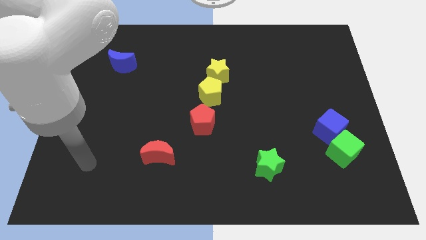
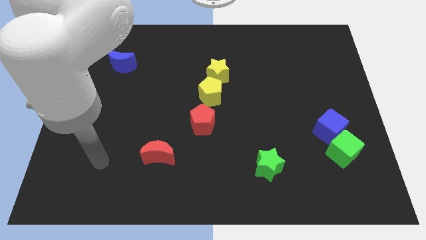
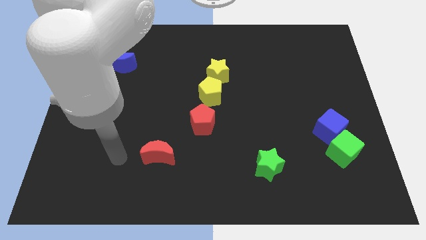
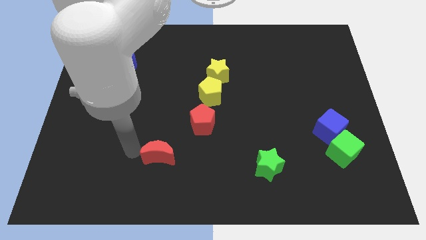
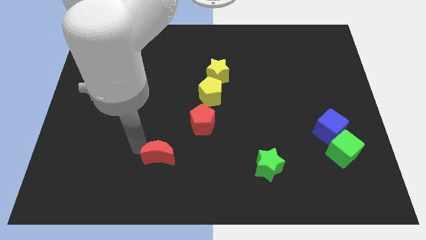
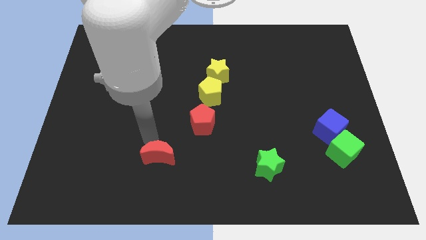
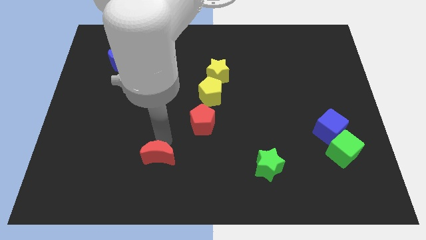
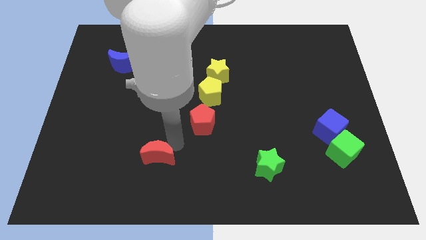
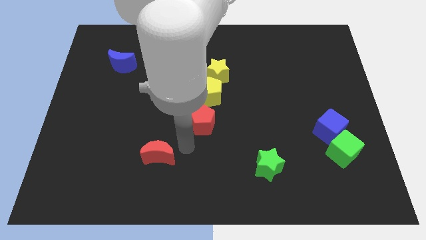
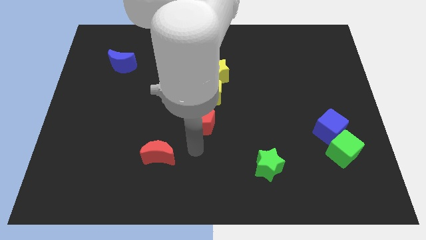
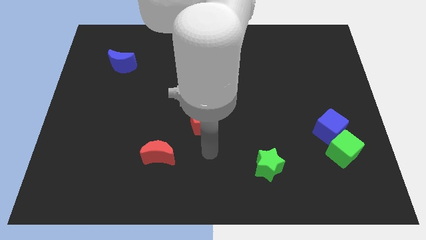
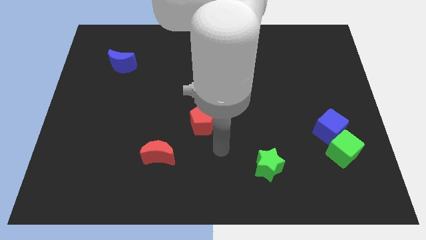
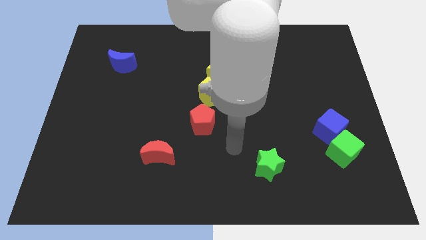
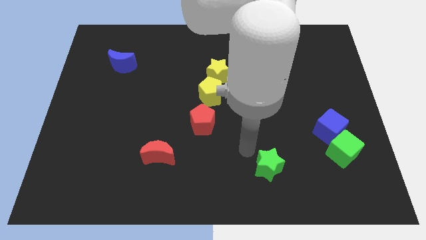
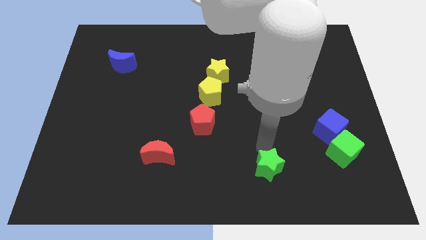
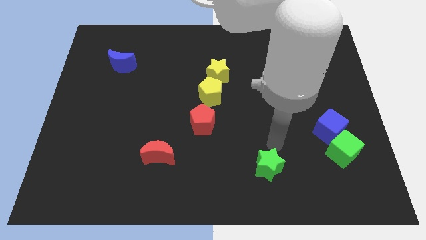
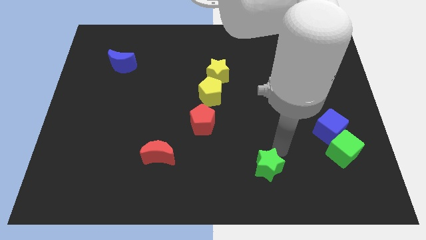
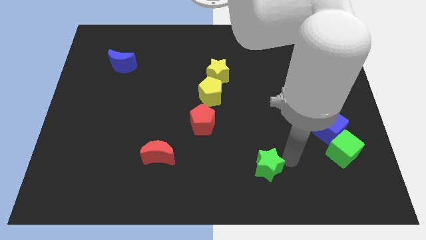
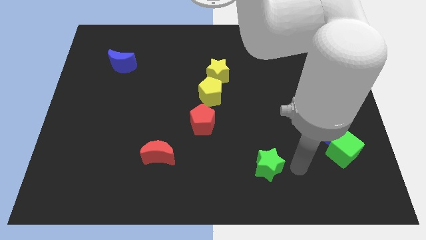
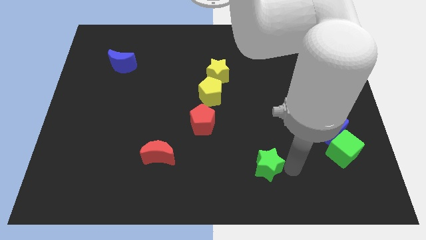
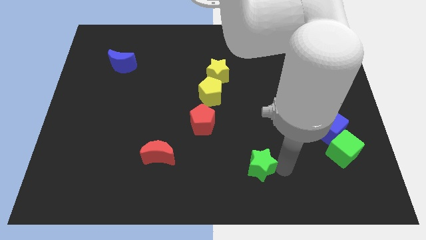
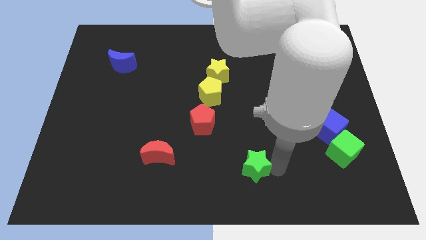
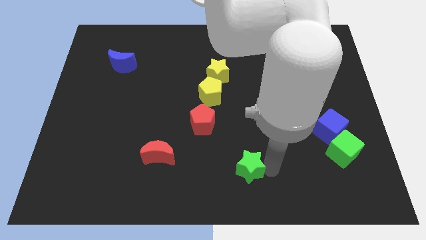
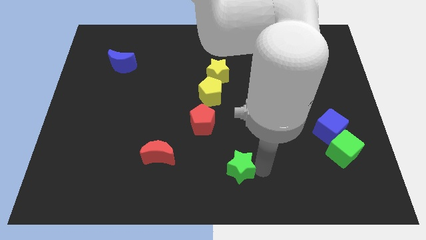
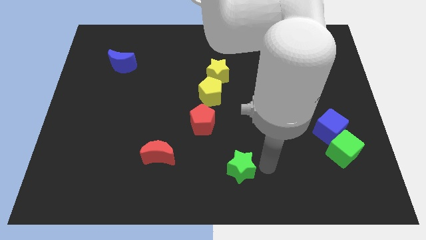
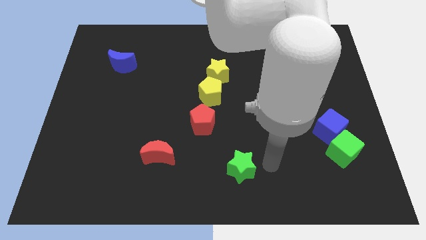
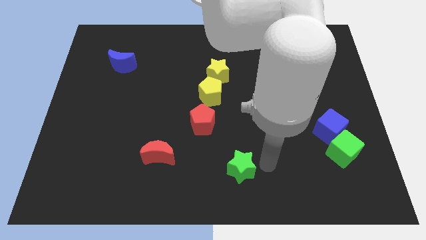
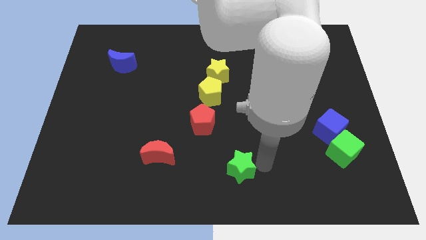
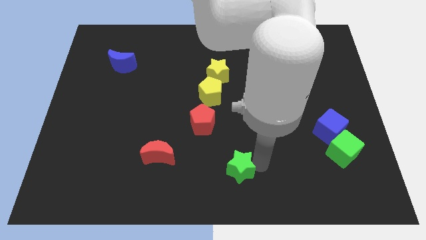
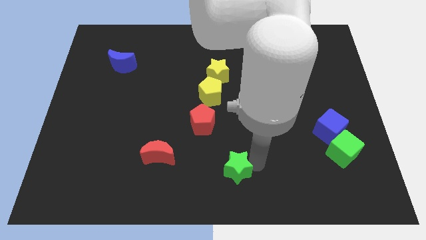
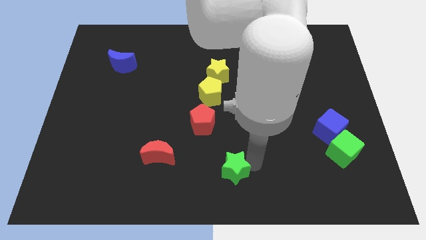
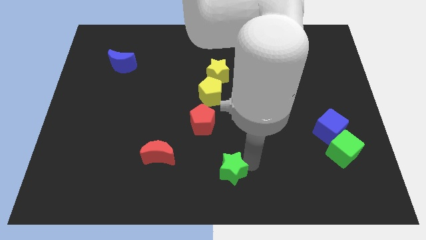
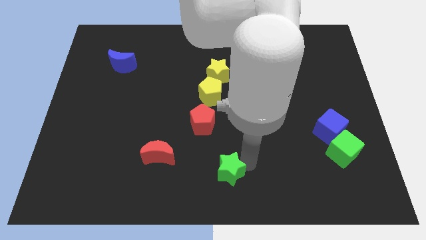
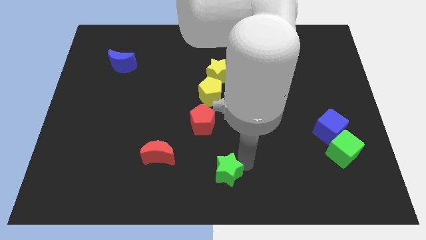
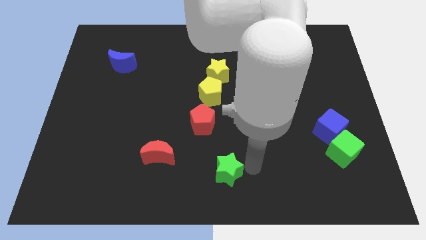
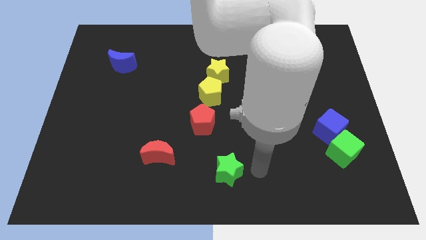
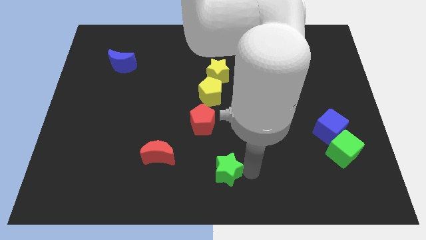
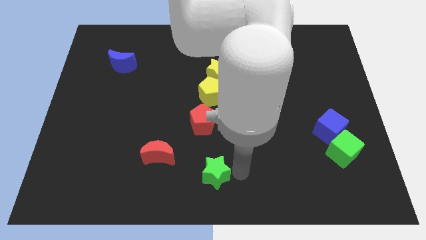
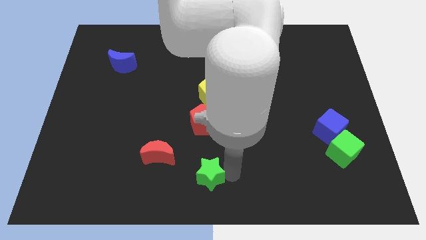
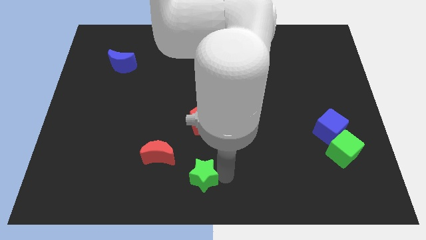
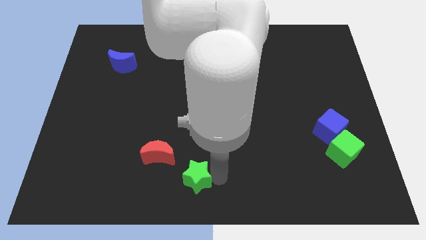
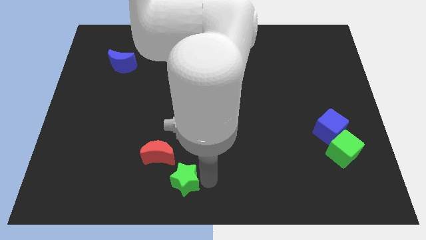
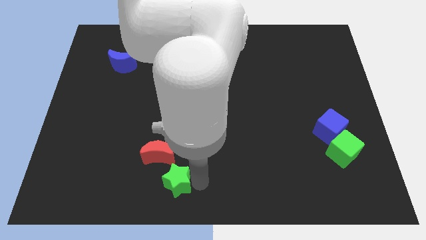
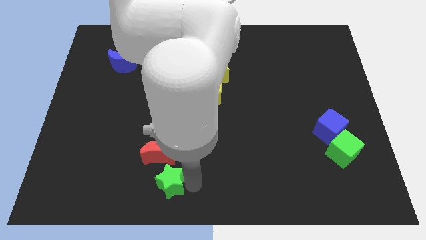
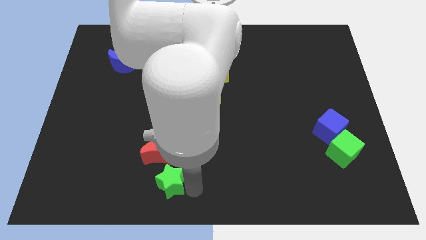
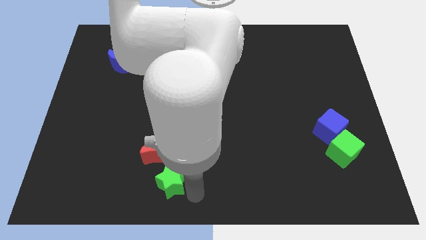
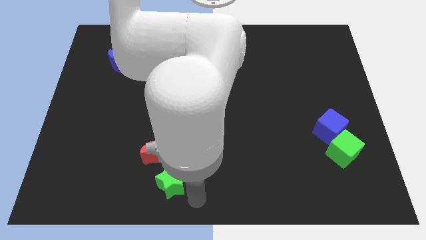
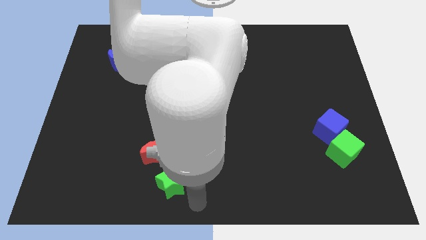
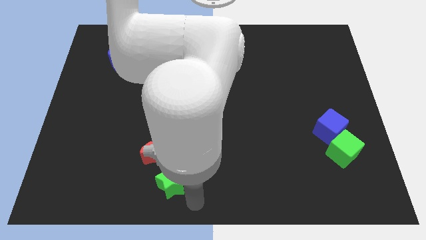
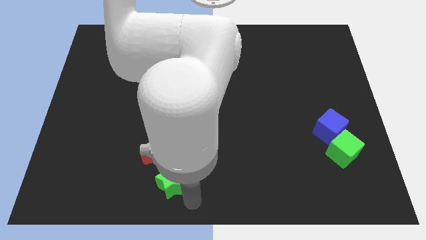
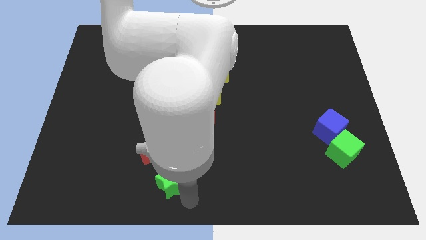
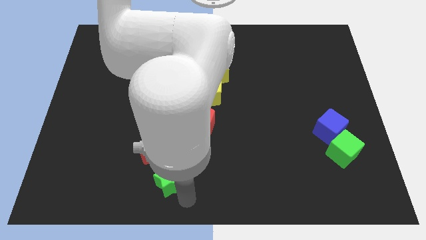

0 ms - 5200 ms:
move the green star to the left

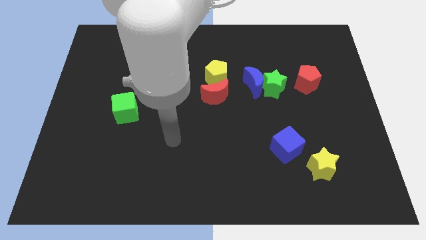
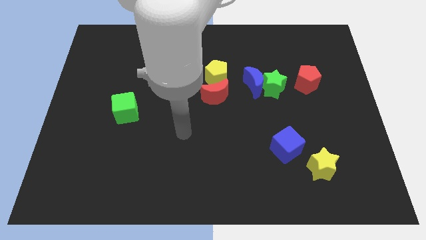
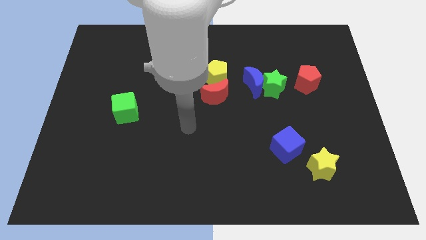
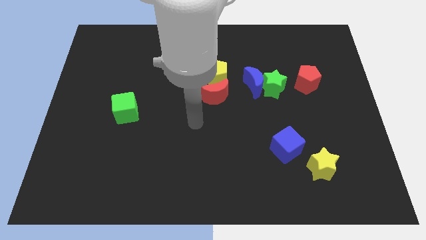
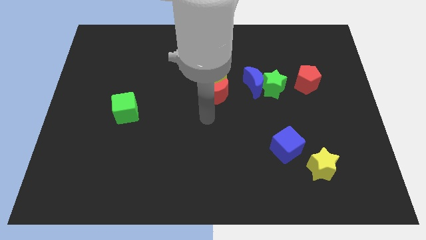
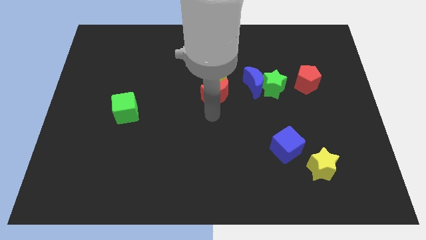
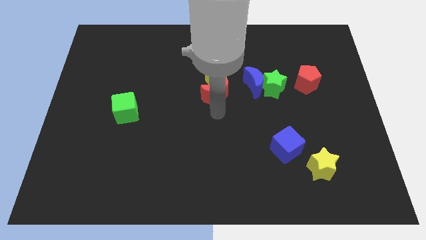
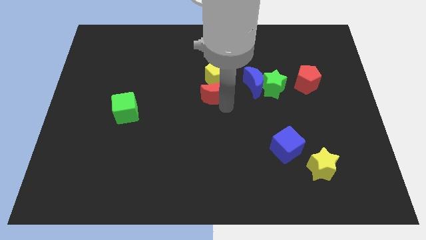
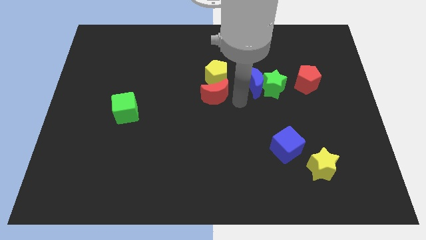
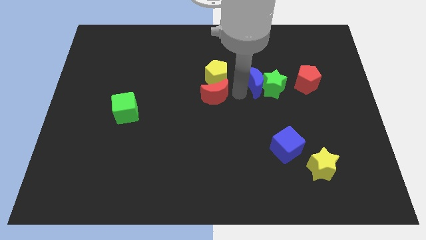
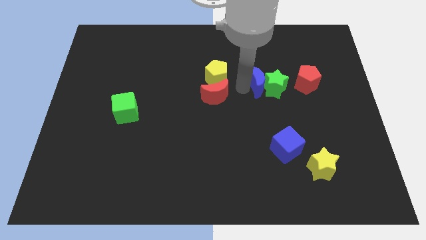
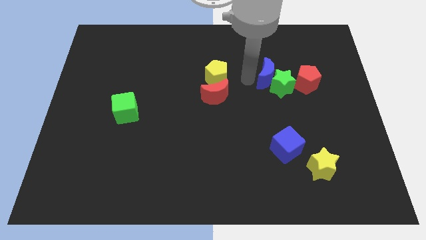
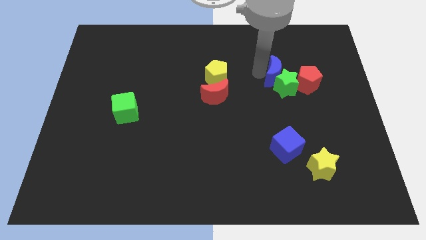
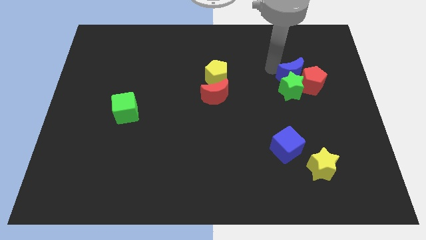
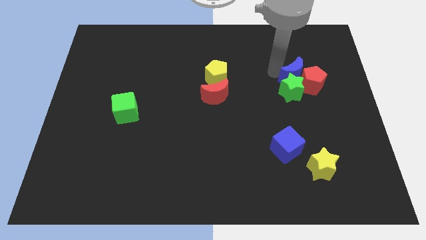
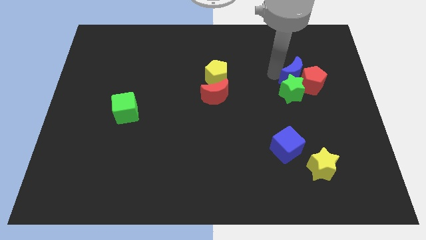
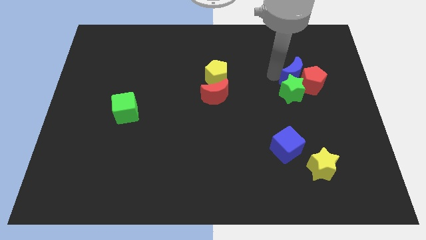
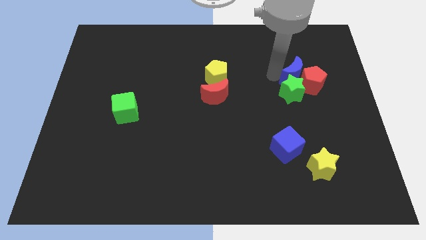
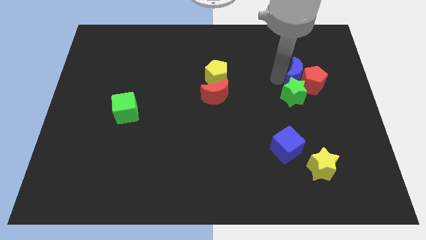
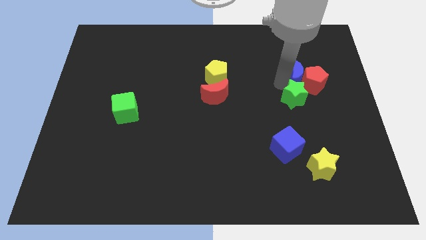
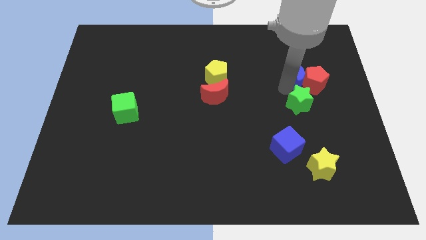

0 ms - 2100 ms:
slide the green star diagonally downwards and right a little

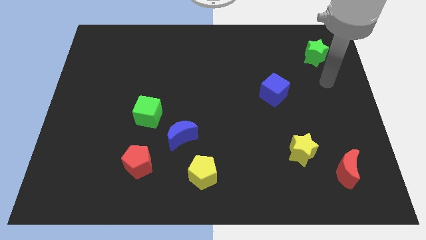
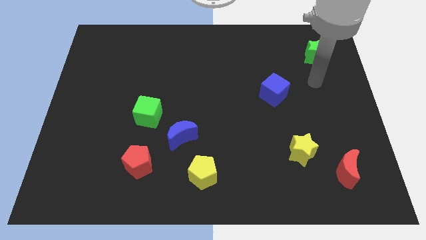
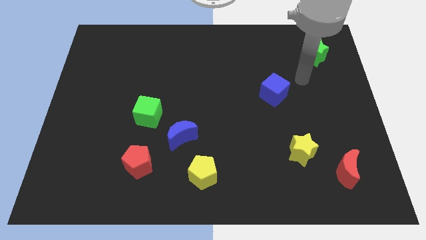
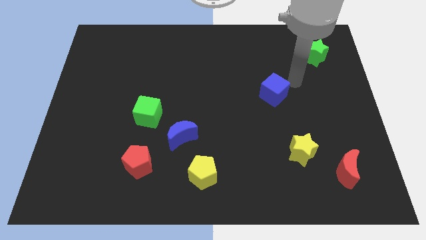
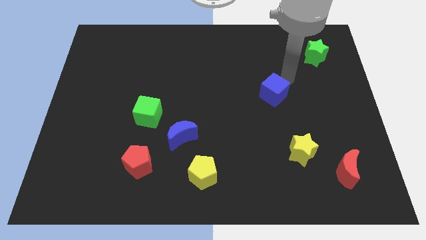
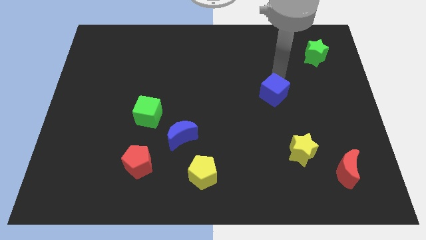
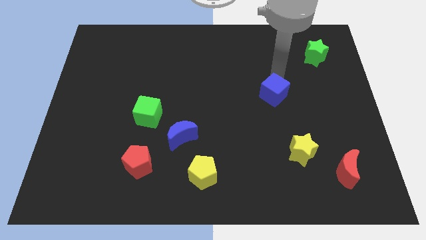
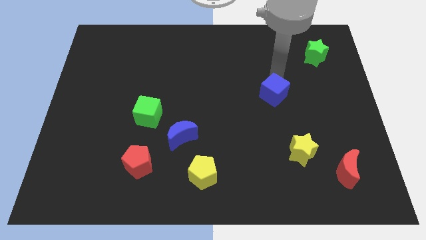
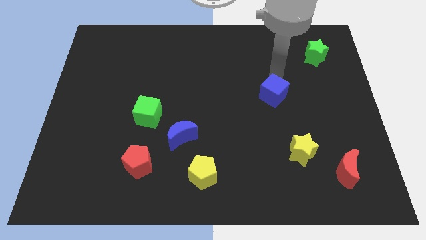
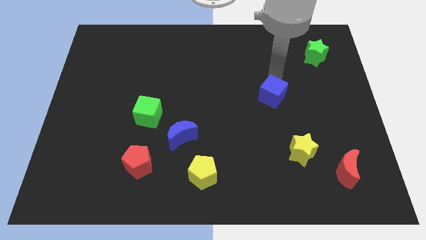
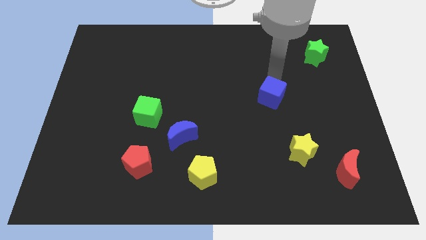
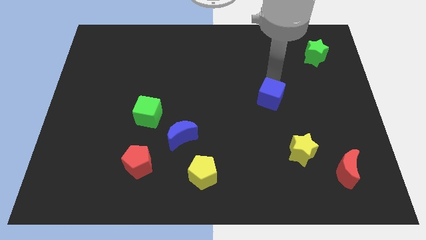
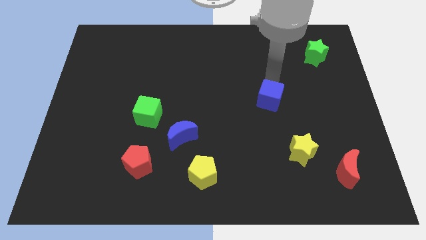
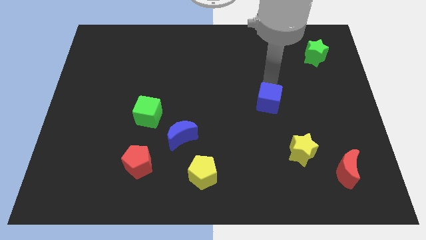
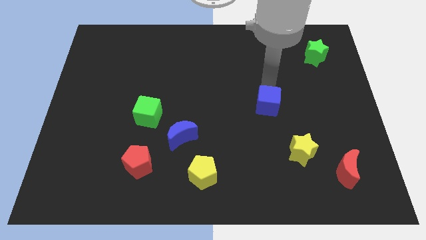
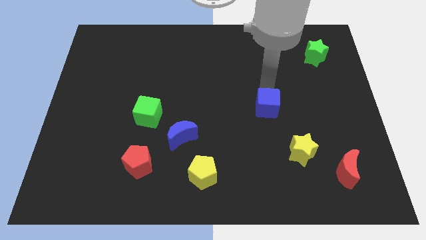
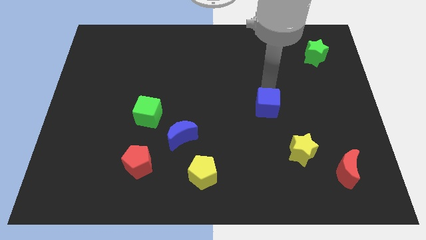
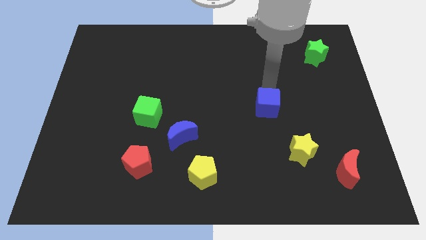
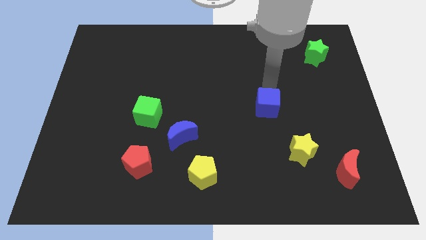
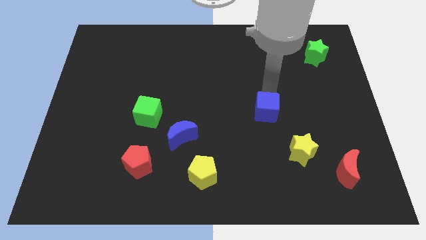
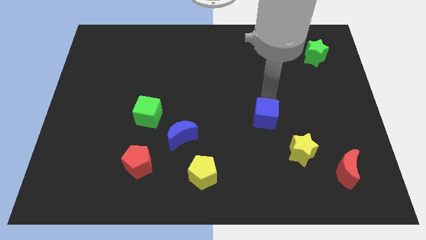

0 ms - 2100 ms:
slightly push the blue cube down
